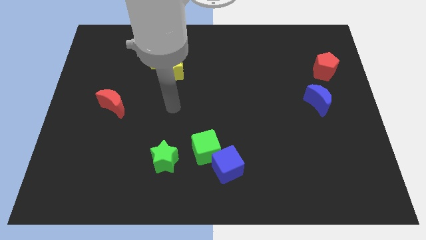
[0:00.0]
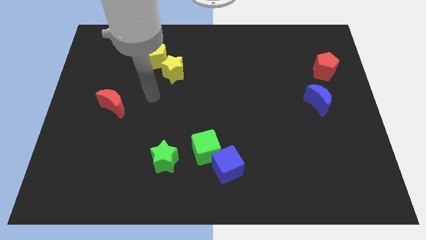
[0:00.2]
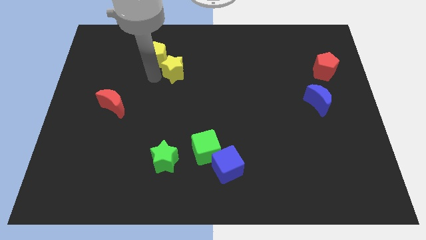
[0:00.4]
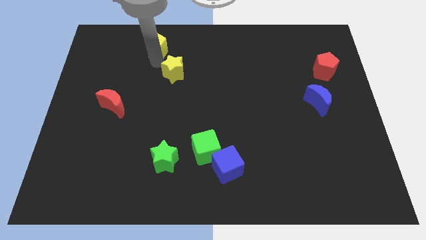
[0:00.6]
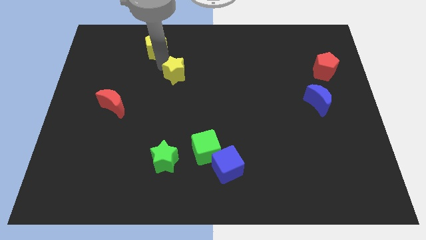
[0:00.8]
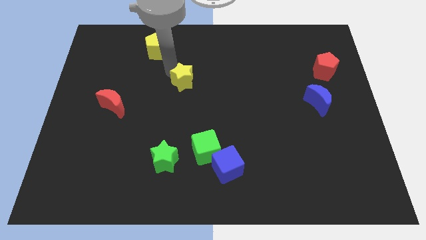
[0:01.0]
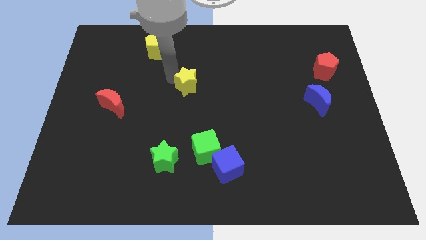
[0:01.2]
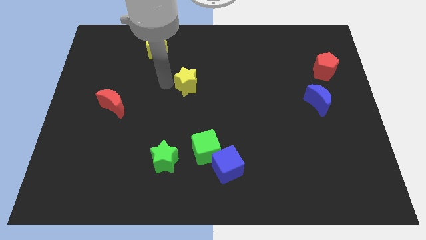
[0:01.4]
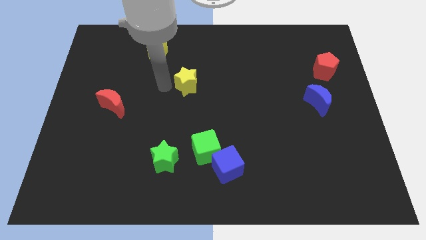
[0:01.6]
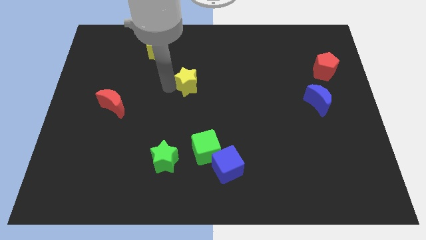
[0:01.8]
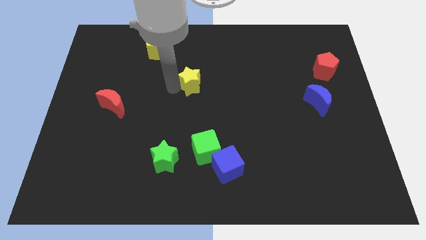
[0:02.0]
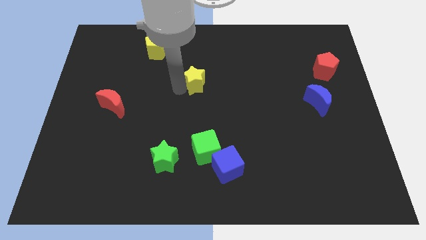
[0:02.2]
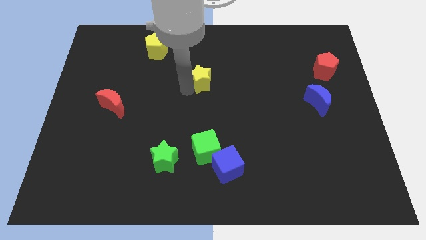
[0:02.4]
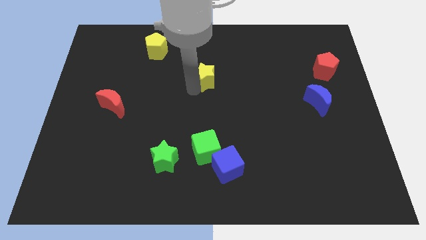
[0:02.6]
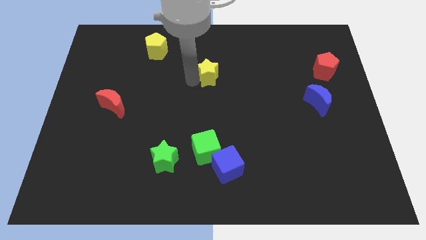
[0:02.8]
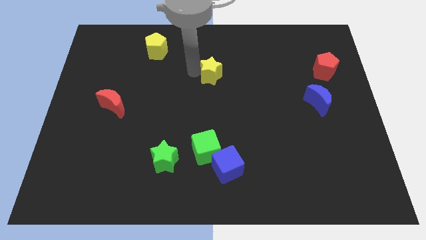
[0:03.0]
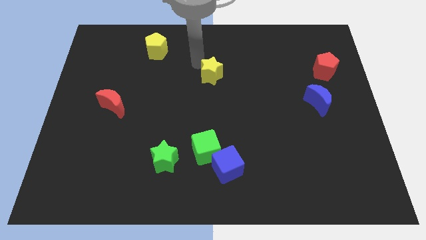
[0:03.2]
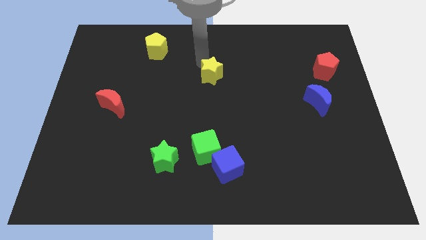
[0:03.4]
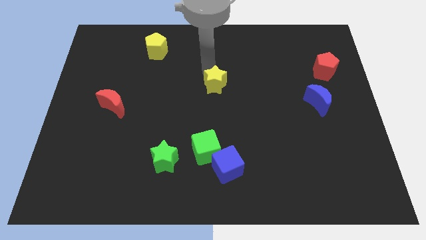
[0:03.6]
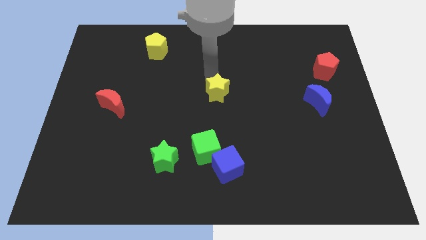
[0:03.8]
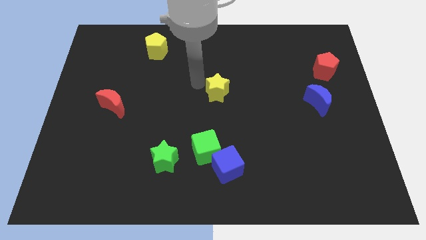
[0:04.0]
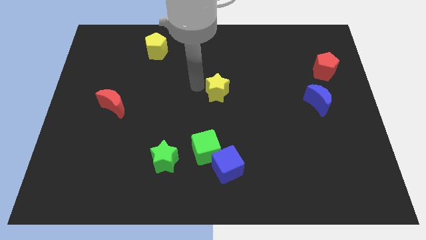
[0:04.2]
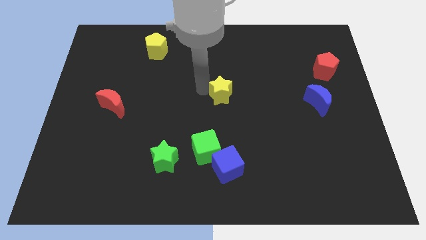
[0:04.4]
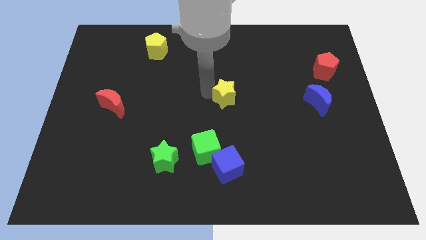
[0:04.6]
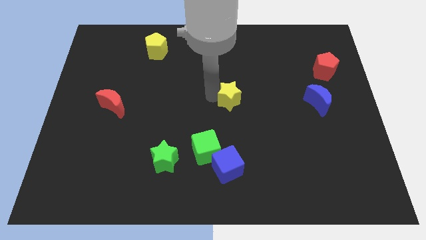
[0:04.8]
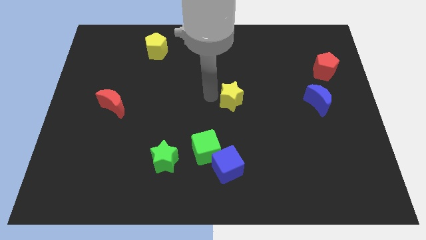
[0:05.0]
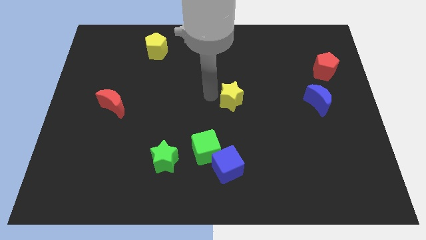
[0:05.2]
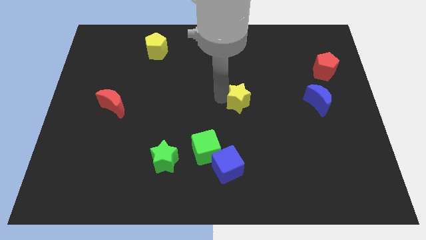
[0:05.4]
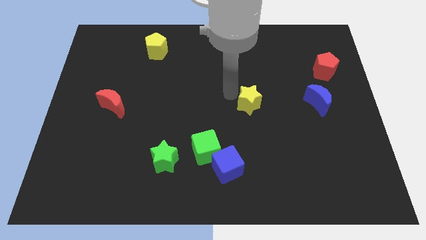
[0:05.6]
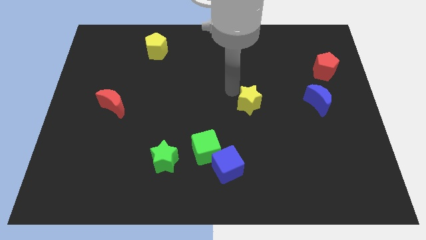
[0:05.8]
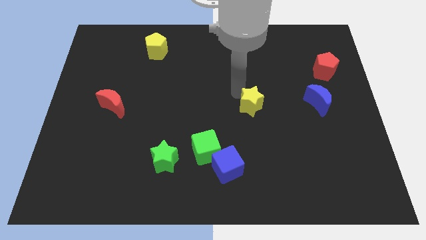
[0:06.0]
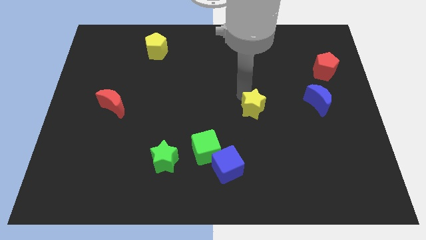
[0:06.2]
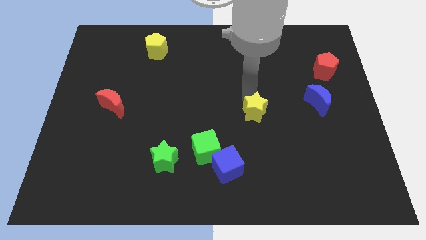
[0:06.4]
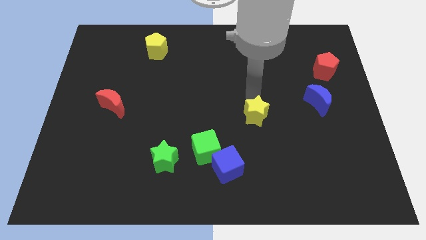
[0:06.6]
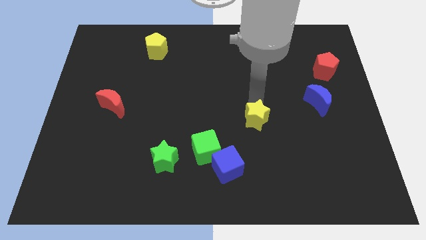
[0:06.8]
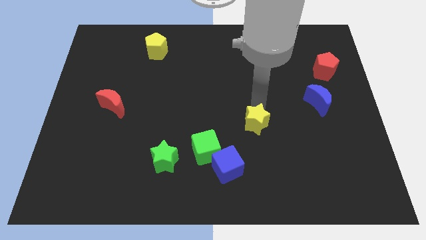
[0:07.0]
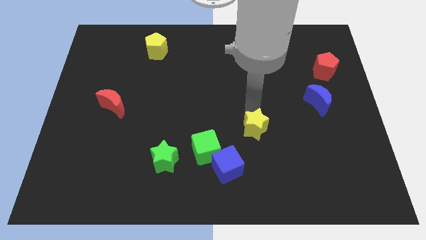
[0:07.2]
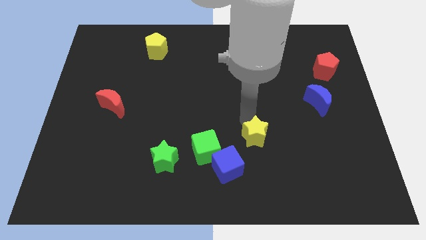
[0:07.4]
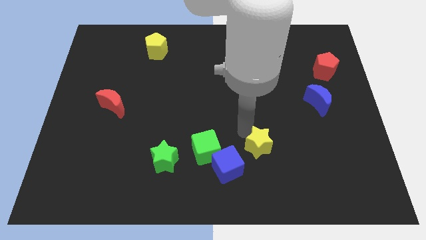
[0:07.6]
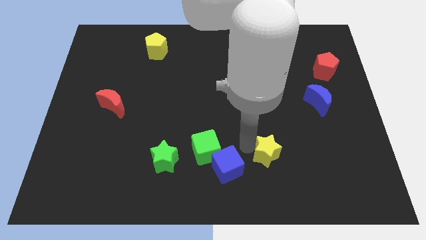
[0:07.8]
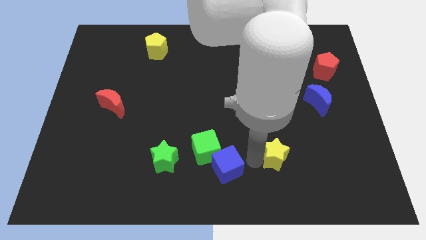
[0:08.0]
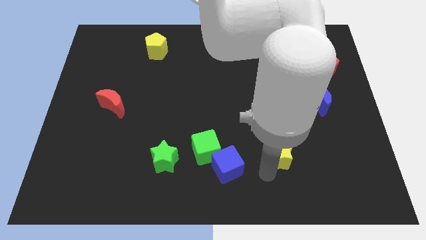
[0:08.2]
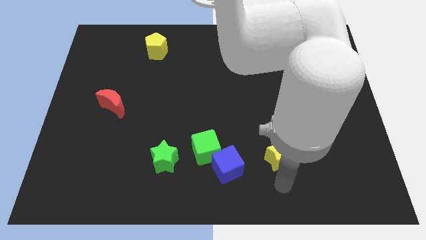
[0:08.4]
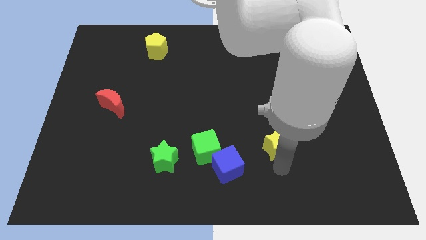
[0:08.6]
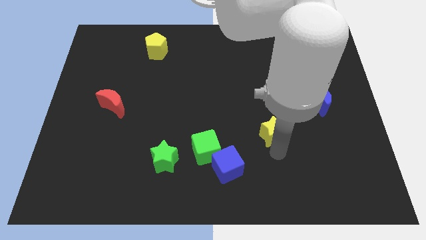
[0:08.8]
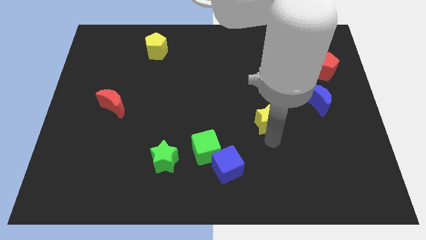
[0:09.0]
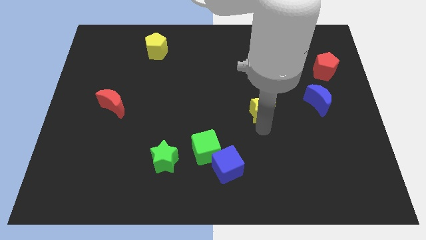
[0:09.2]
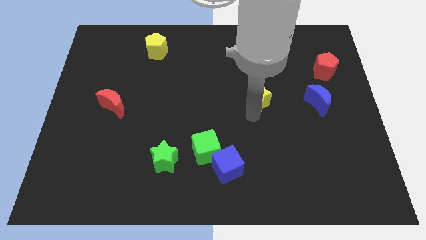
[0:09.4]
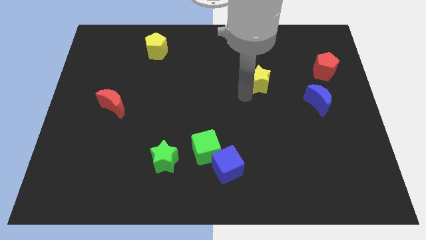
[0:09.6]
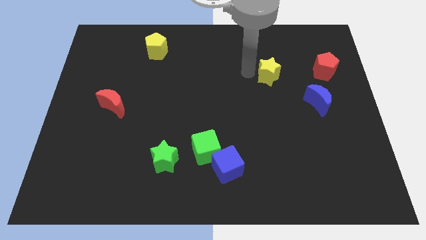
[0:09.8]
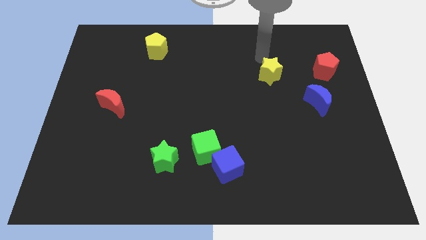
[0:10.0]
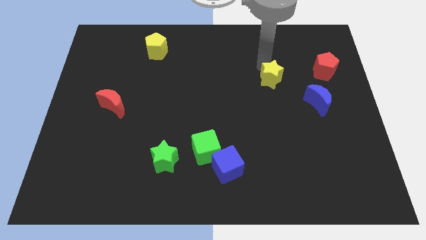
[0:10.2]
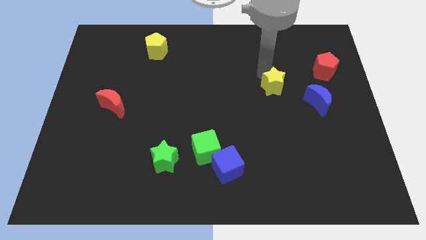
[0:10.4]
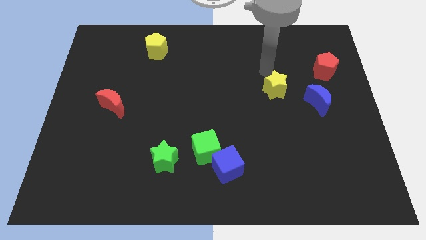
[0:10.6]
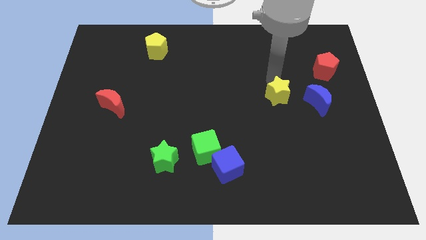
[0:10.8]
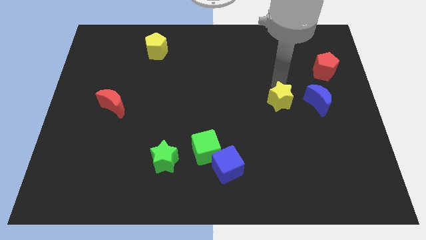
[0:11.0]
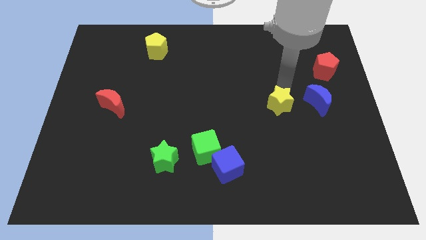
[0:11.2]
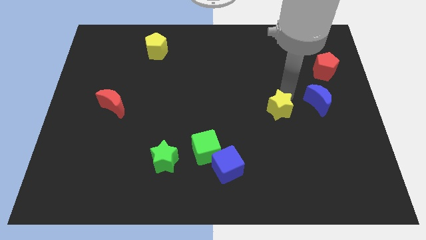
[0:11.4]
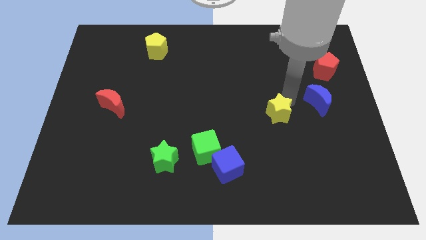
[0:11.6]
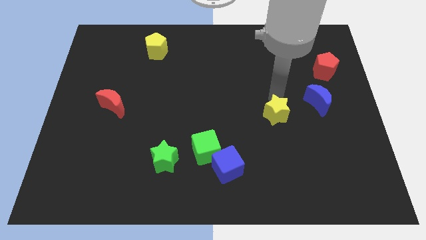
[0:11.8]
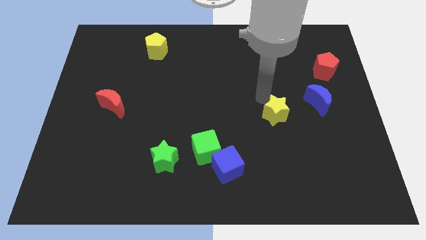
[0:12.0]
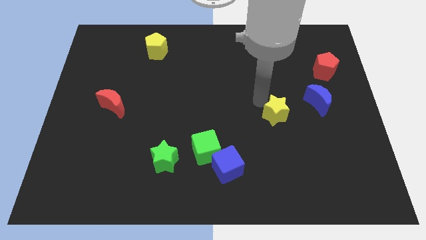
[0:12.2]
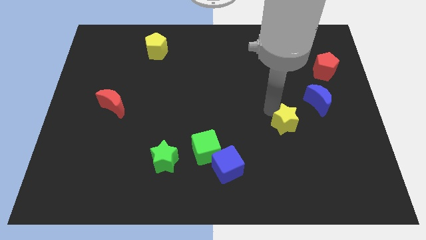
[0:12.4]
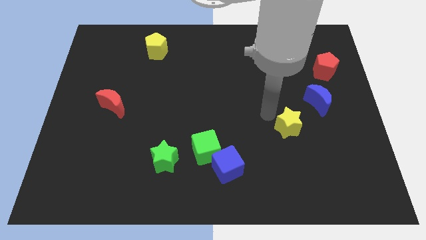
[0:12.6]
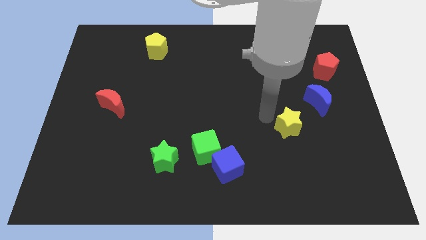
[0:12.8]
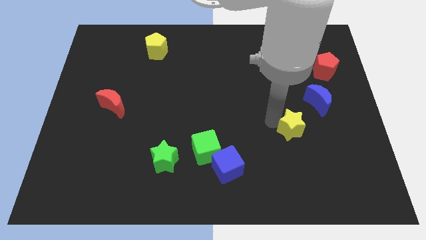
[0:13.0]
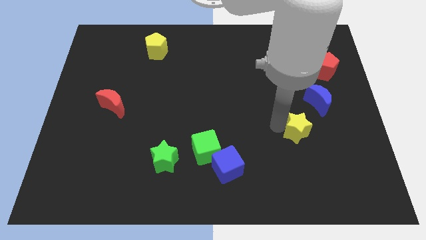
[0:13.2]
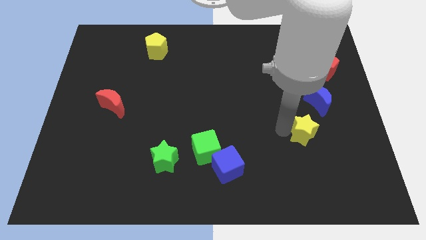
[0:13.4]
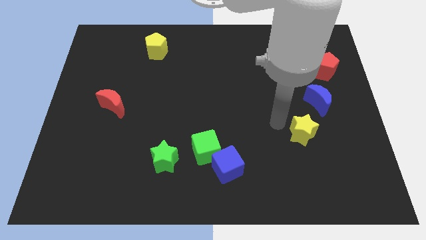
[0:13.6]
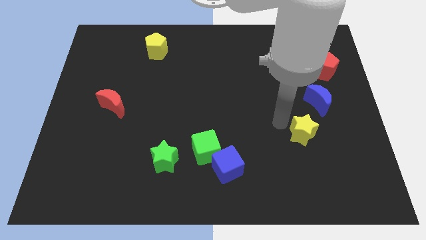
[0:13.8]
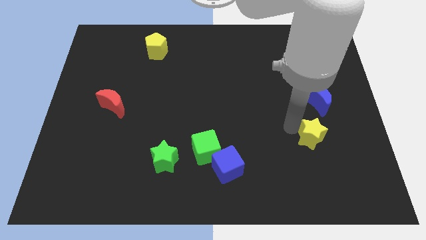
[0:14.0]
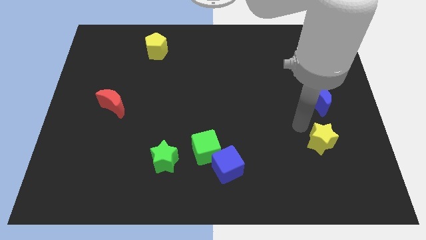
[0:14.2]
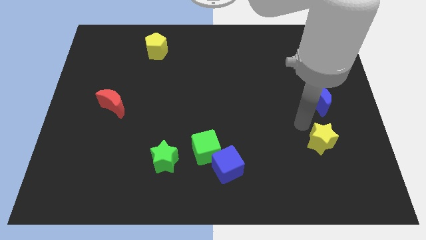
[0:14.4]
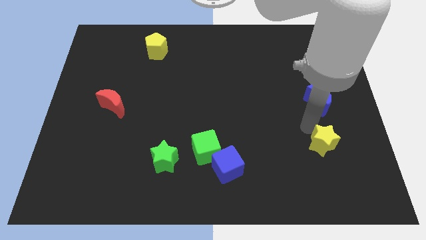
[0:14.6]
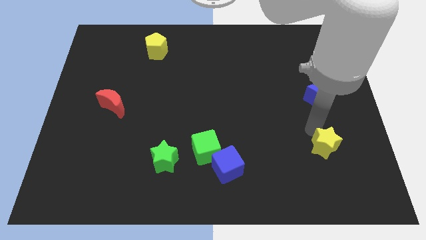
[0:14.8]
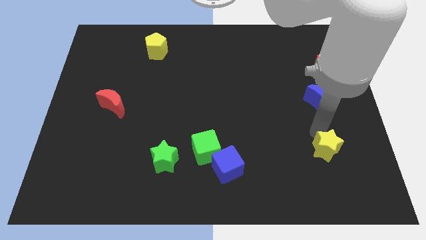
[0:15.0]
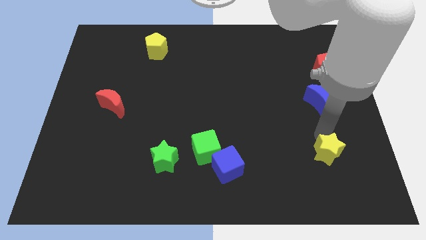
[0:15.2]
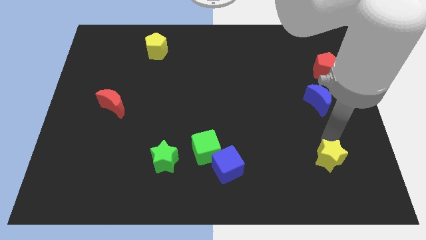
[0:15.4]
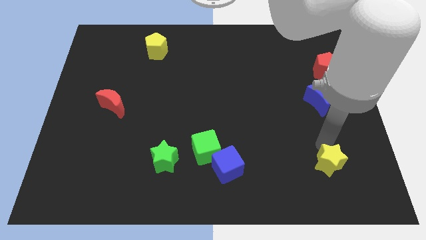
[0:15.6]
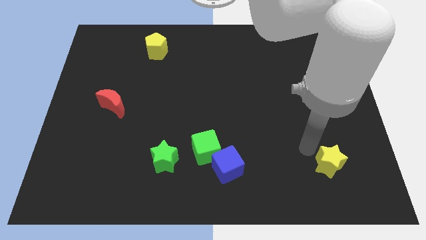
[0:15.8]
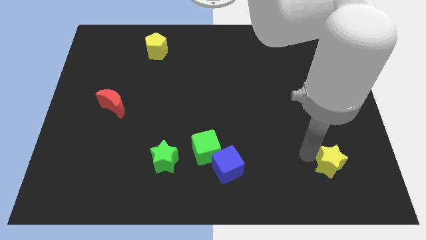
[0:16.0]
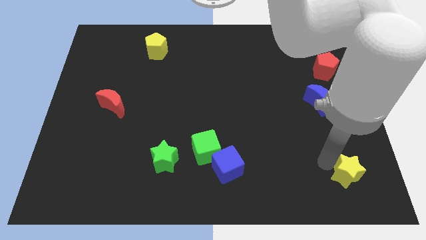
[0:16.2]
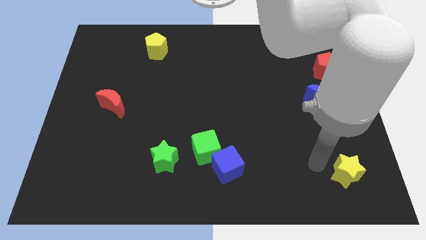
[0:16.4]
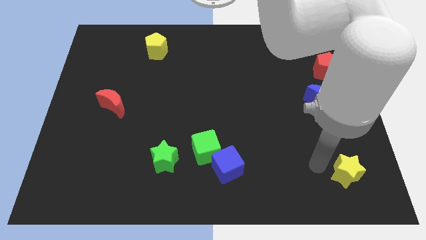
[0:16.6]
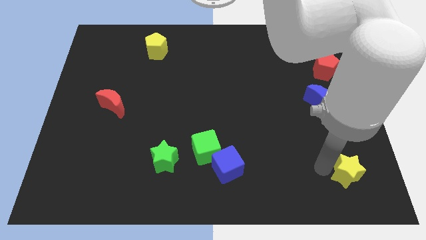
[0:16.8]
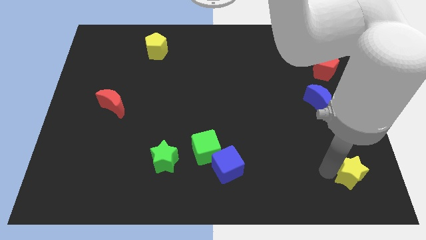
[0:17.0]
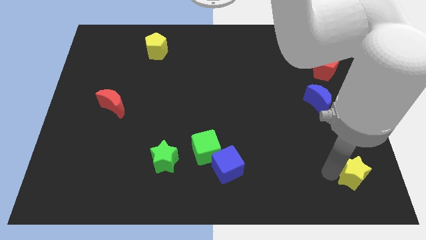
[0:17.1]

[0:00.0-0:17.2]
push the yellow star to the bottom right
